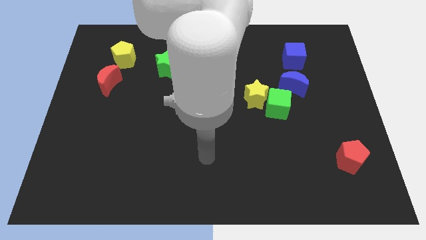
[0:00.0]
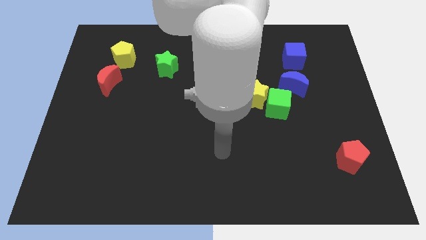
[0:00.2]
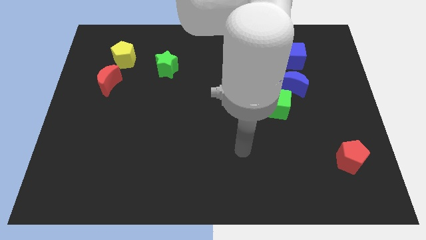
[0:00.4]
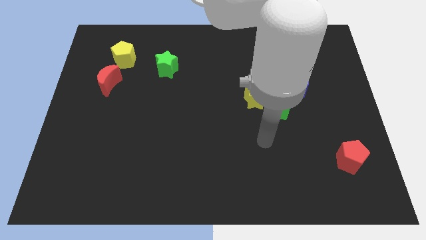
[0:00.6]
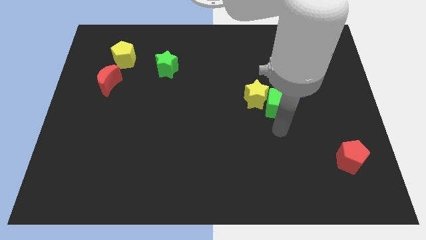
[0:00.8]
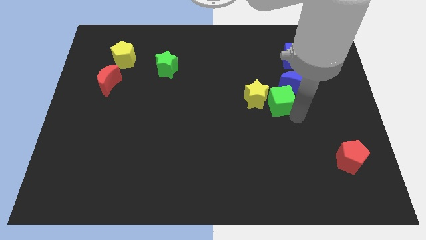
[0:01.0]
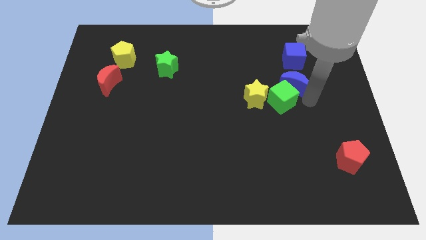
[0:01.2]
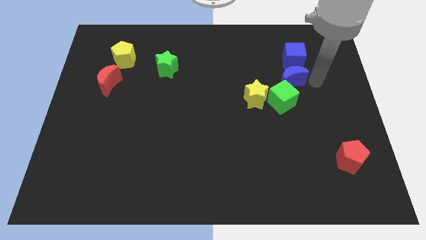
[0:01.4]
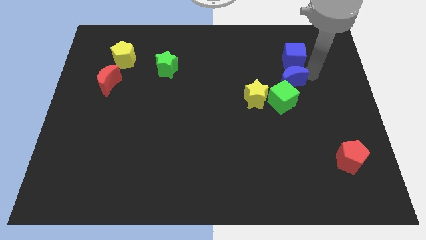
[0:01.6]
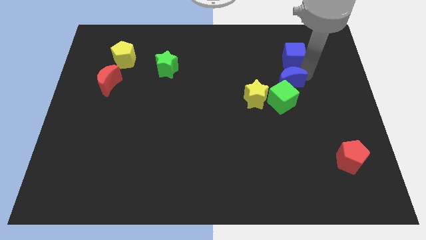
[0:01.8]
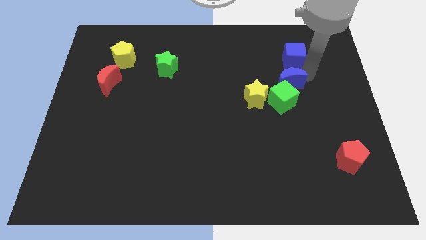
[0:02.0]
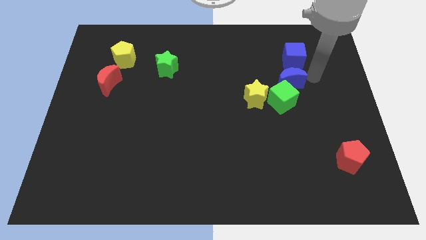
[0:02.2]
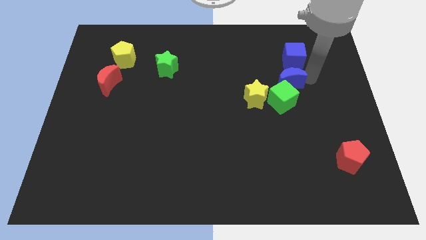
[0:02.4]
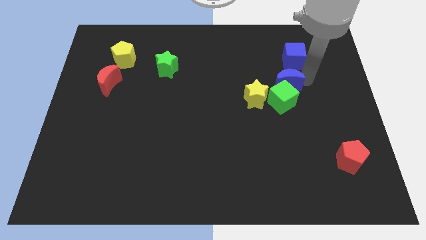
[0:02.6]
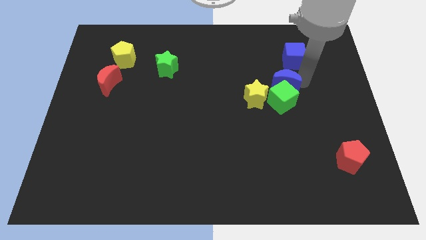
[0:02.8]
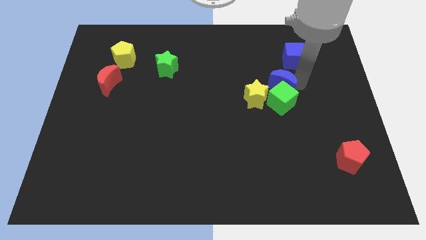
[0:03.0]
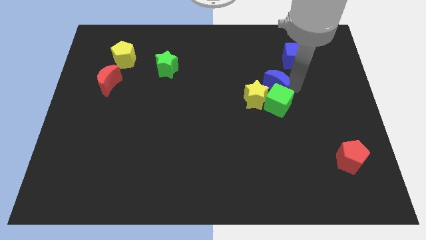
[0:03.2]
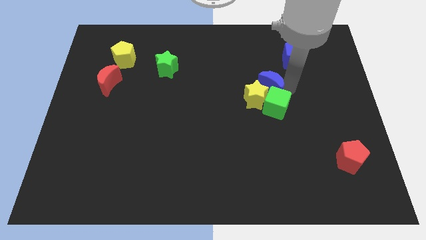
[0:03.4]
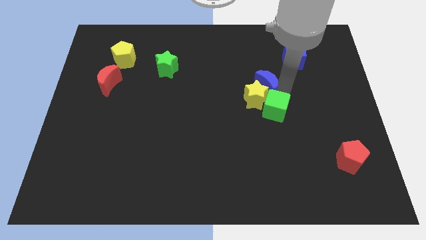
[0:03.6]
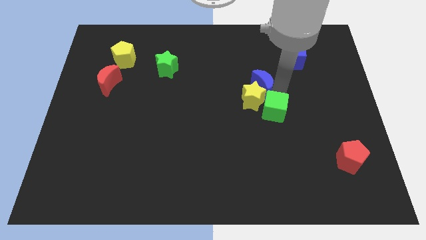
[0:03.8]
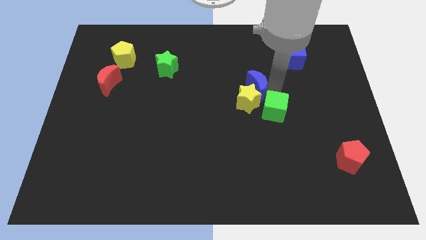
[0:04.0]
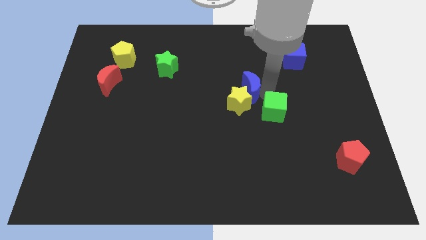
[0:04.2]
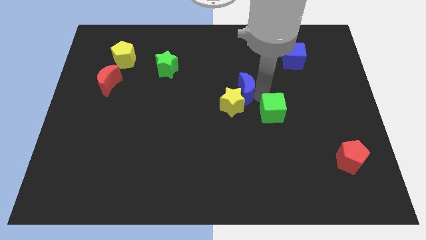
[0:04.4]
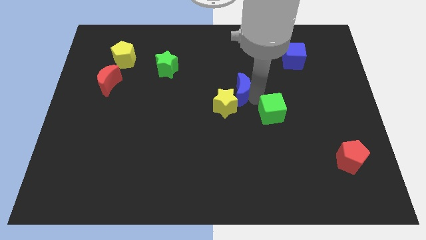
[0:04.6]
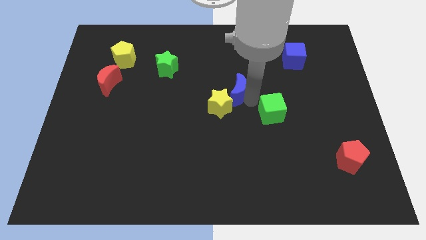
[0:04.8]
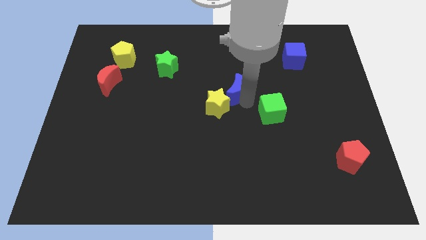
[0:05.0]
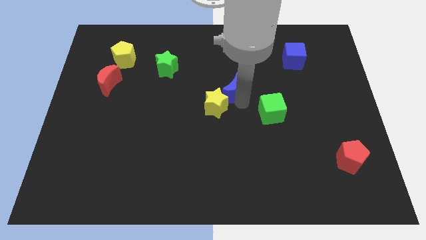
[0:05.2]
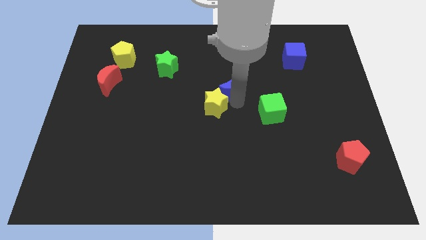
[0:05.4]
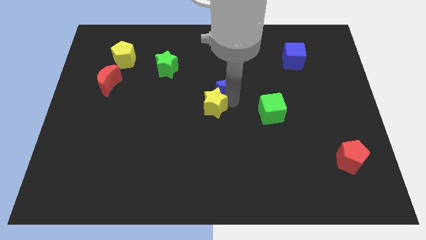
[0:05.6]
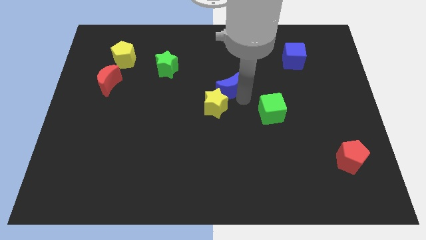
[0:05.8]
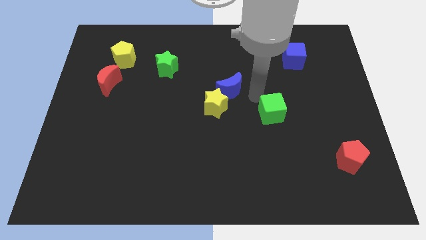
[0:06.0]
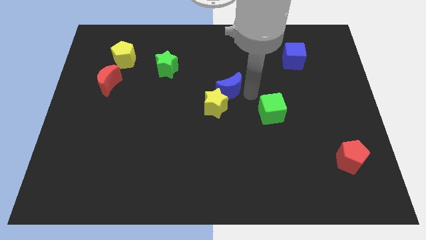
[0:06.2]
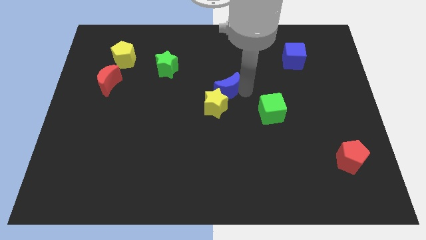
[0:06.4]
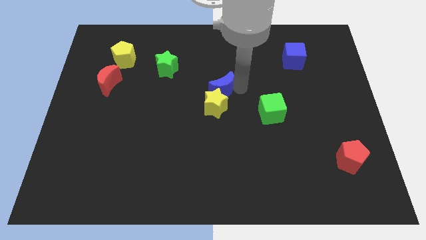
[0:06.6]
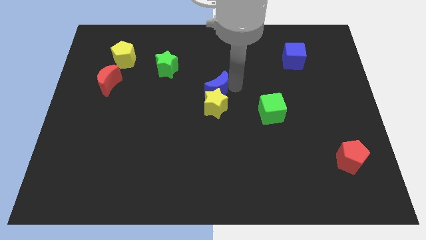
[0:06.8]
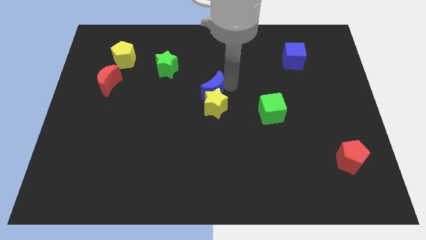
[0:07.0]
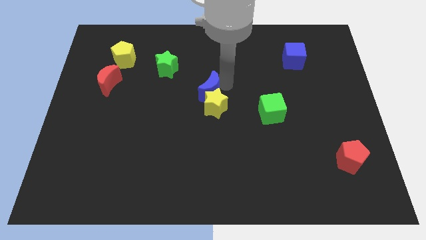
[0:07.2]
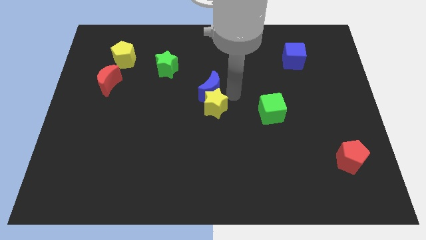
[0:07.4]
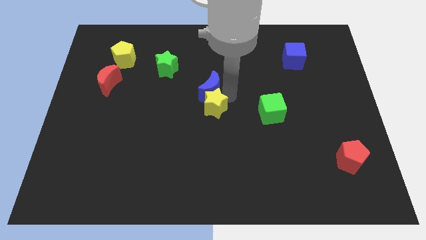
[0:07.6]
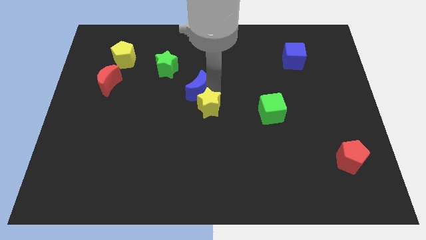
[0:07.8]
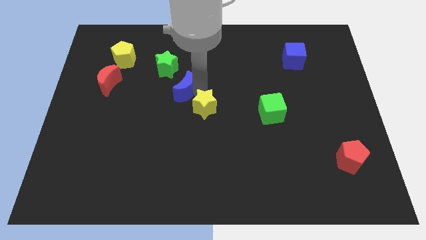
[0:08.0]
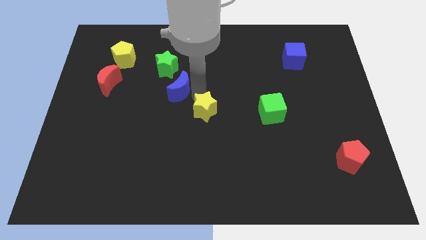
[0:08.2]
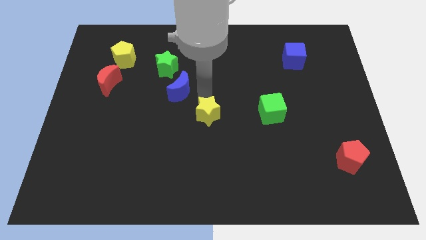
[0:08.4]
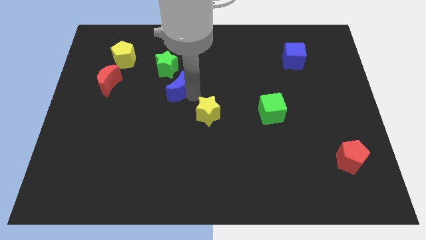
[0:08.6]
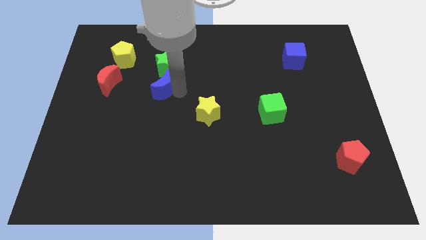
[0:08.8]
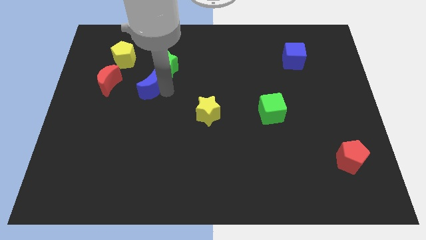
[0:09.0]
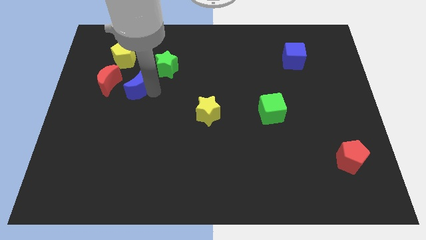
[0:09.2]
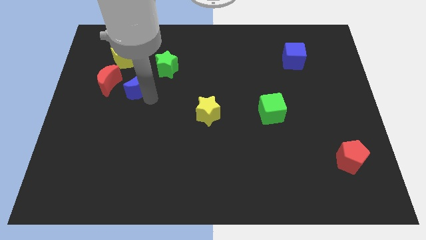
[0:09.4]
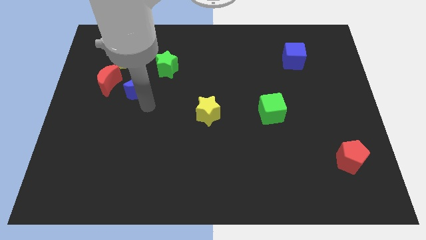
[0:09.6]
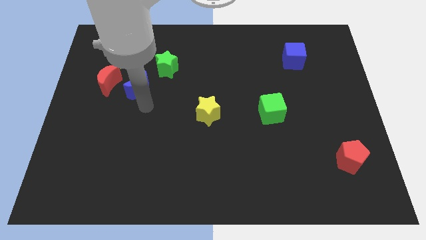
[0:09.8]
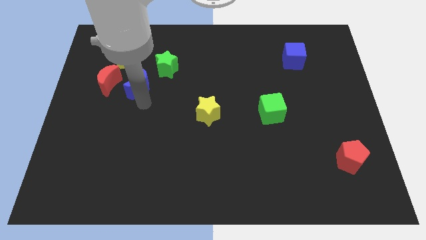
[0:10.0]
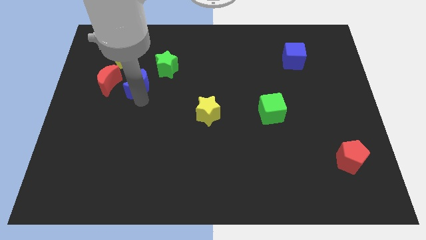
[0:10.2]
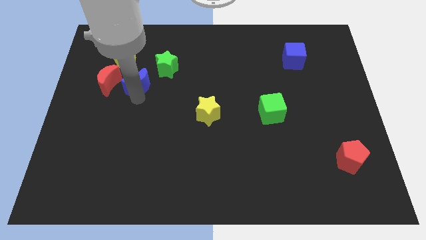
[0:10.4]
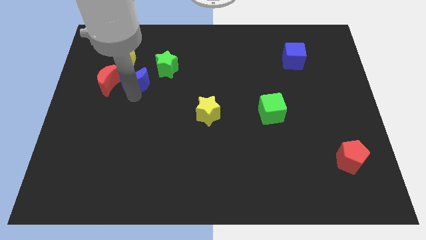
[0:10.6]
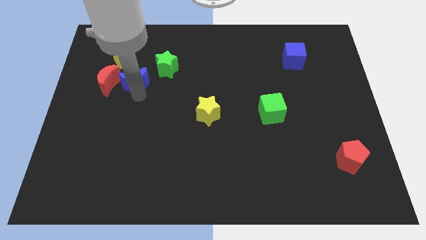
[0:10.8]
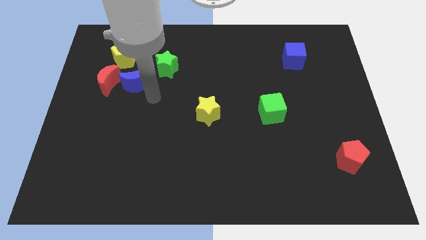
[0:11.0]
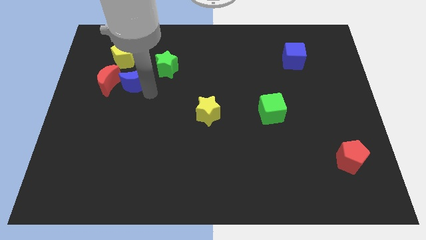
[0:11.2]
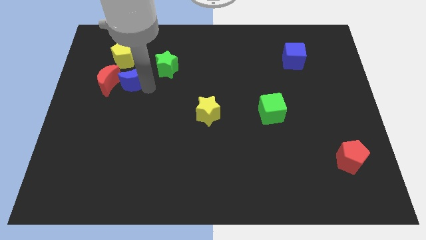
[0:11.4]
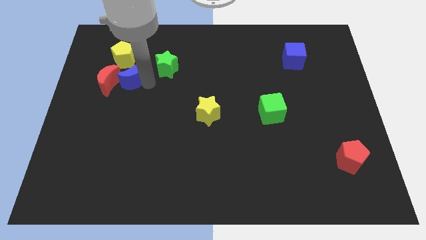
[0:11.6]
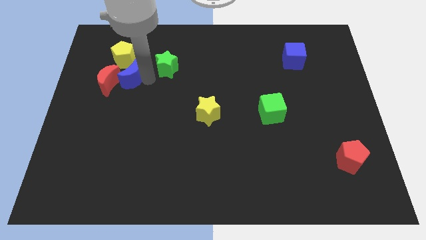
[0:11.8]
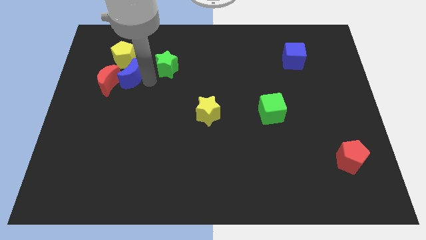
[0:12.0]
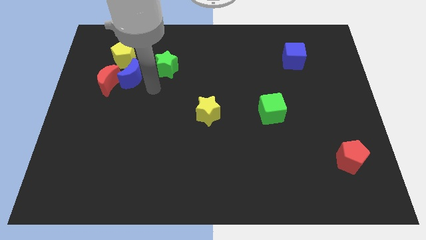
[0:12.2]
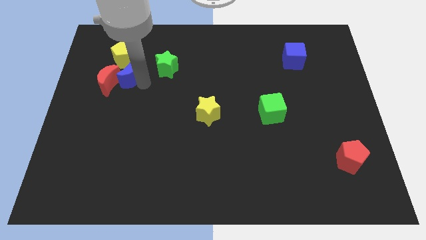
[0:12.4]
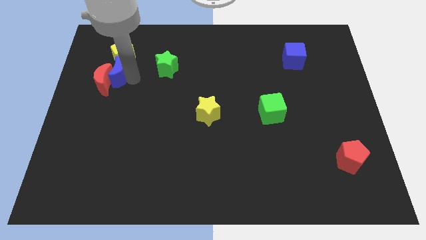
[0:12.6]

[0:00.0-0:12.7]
push the blue moon to the bottom left side of the yellow pentagon

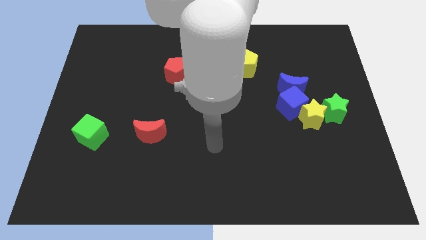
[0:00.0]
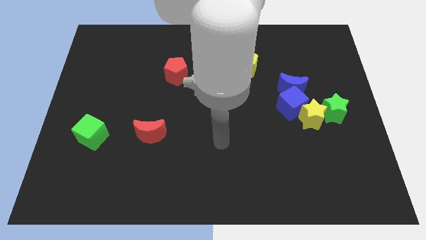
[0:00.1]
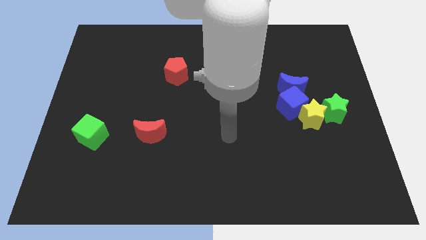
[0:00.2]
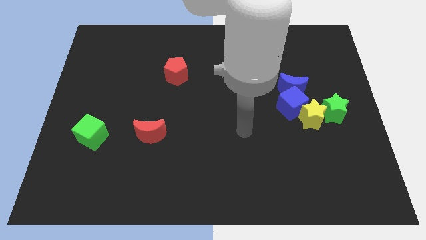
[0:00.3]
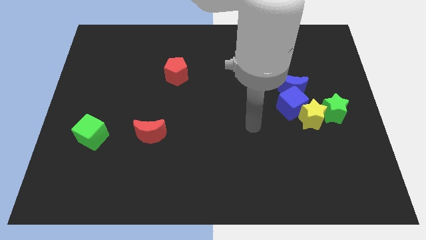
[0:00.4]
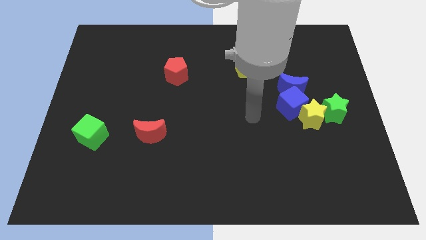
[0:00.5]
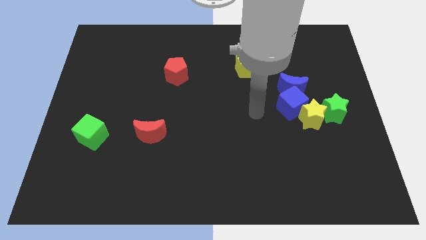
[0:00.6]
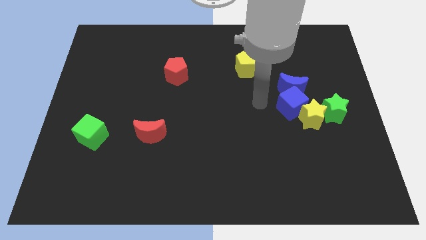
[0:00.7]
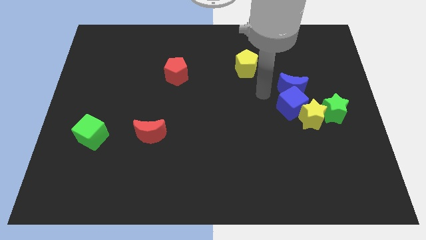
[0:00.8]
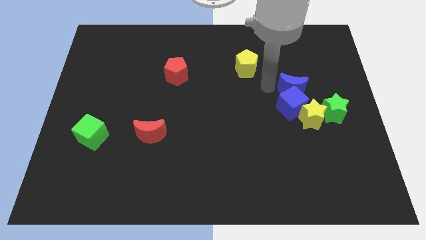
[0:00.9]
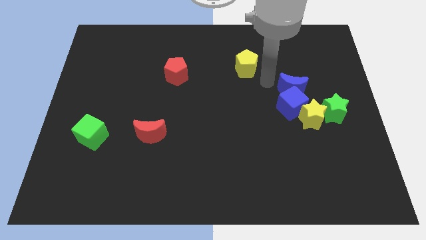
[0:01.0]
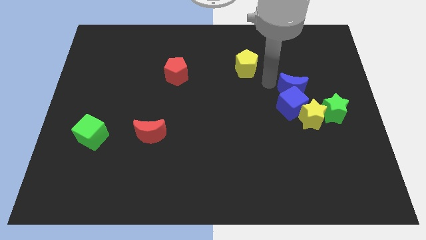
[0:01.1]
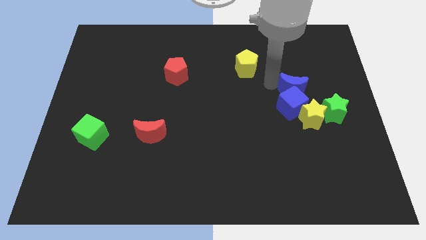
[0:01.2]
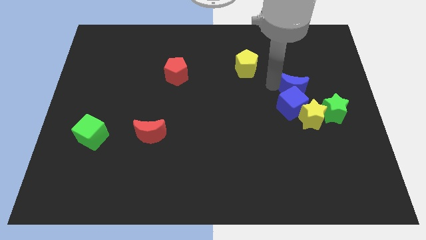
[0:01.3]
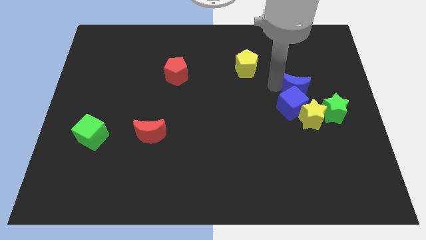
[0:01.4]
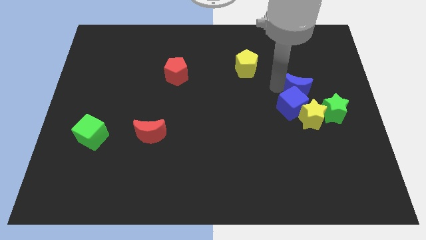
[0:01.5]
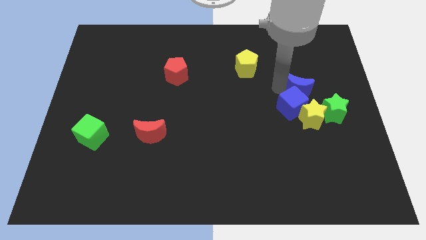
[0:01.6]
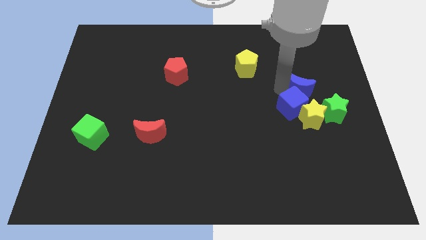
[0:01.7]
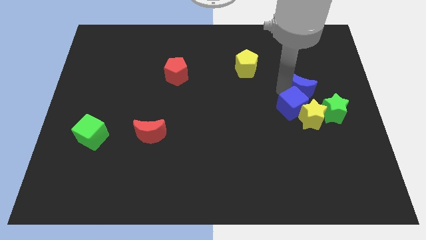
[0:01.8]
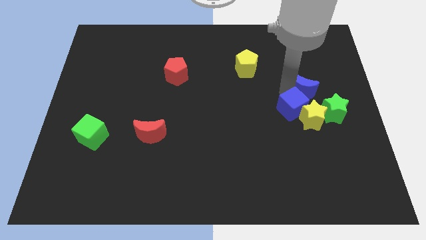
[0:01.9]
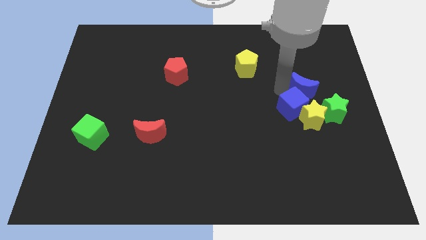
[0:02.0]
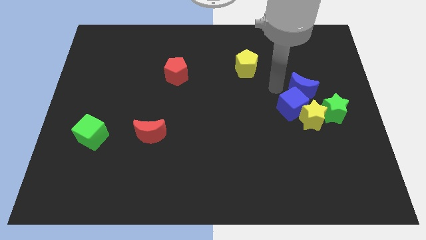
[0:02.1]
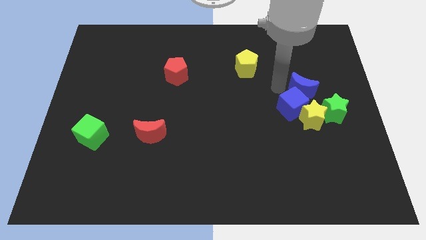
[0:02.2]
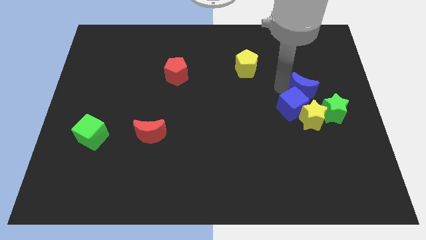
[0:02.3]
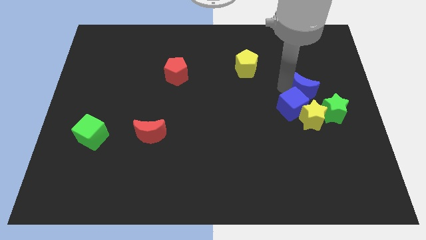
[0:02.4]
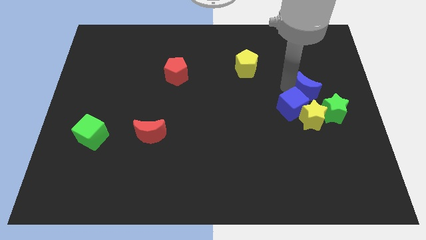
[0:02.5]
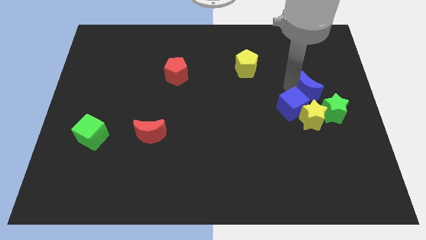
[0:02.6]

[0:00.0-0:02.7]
slide the blue moon to the right side of the blue cube
